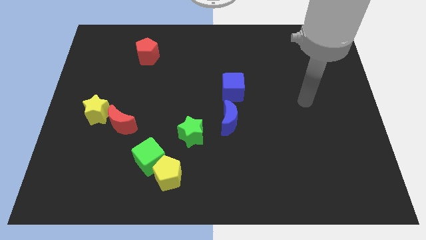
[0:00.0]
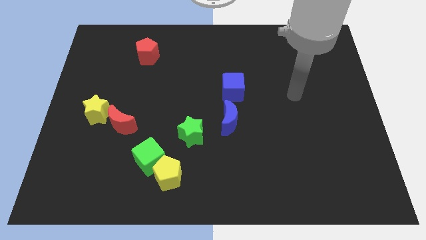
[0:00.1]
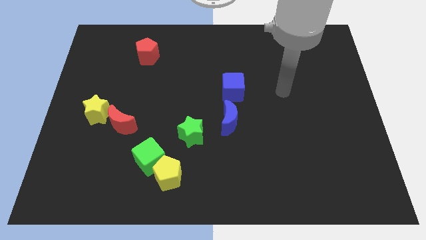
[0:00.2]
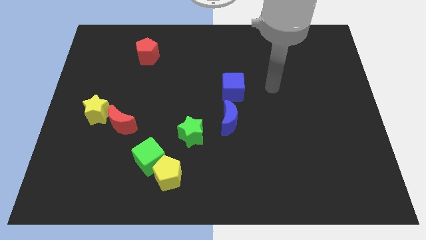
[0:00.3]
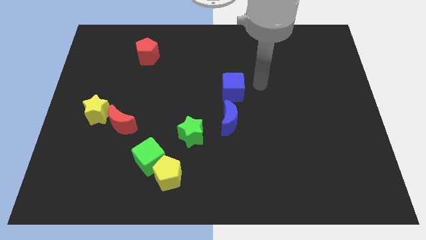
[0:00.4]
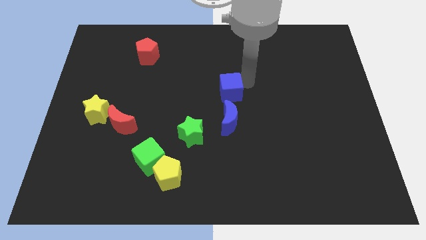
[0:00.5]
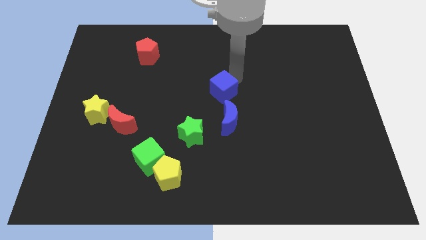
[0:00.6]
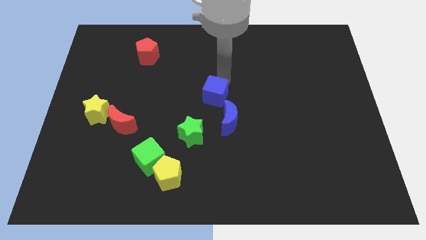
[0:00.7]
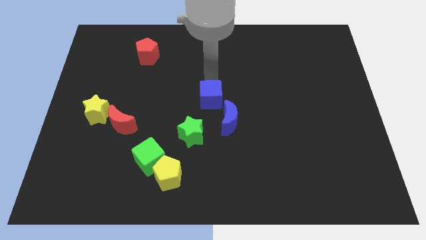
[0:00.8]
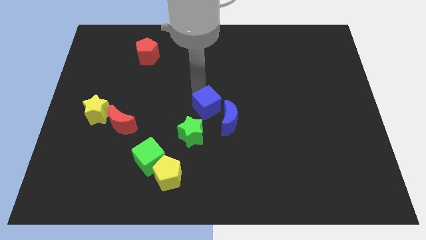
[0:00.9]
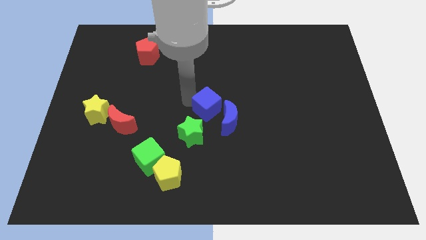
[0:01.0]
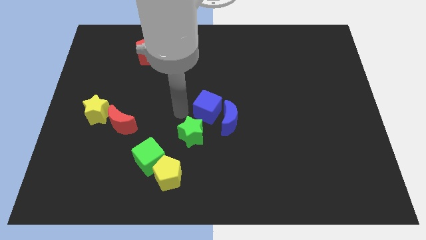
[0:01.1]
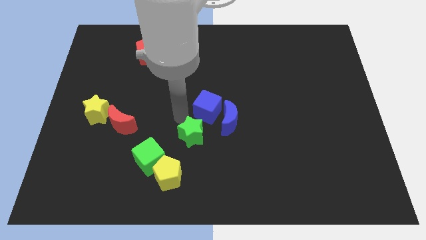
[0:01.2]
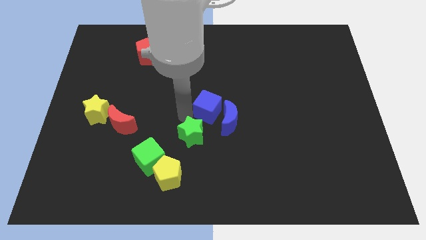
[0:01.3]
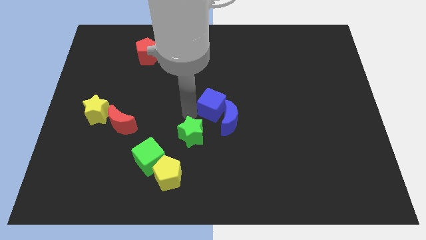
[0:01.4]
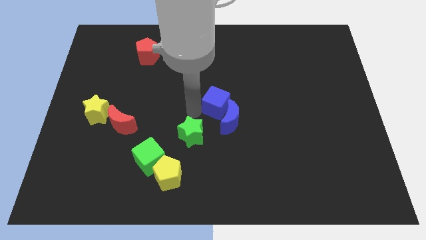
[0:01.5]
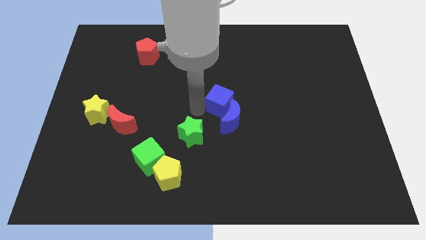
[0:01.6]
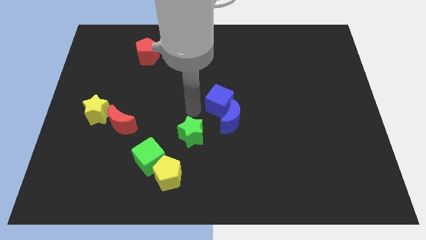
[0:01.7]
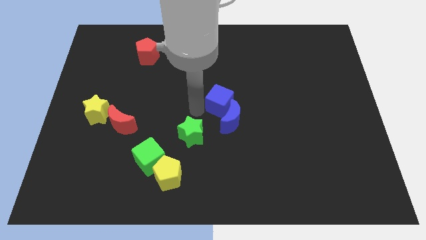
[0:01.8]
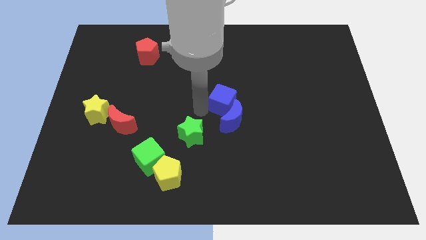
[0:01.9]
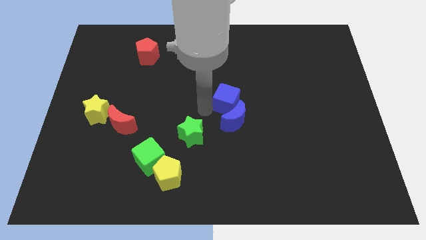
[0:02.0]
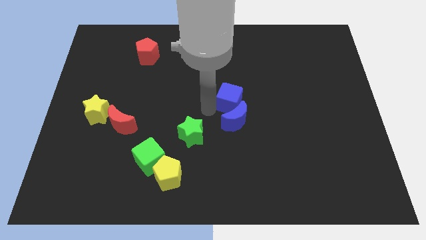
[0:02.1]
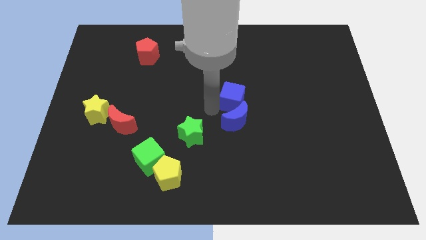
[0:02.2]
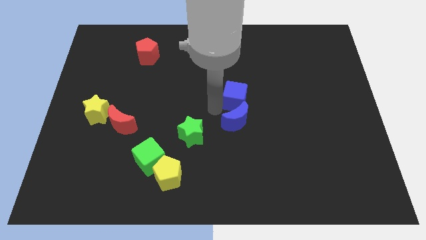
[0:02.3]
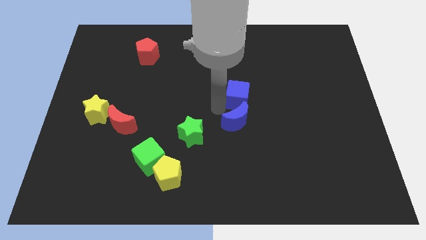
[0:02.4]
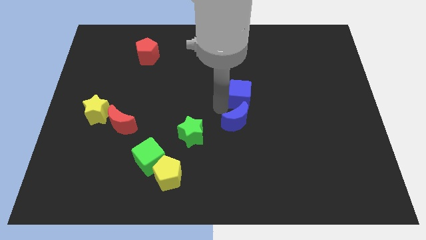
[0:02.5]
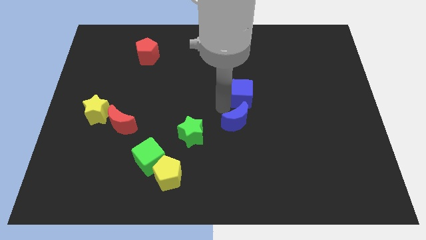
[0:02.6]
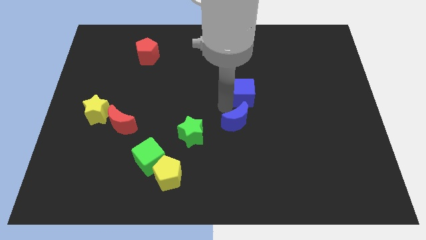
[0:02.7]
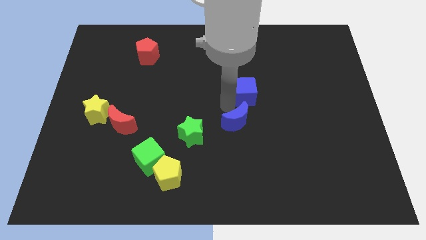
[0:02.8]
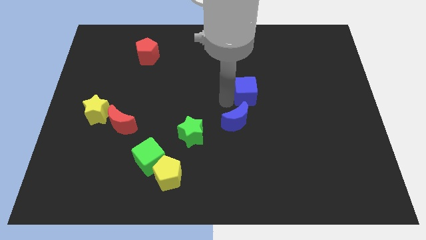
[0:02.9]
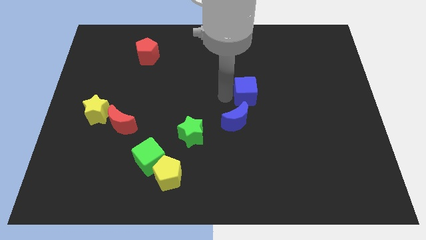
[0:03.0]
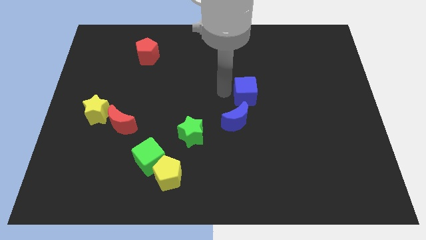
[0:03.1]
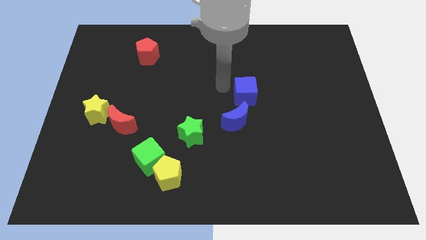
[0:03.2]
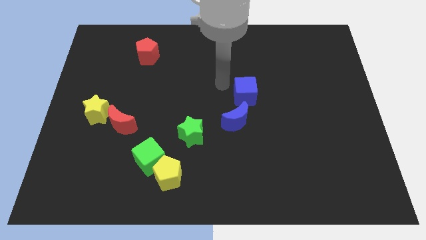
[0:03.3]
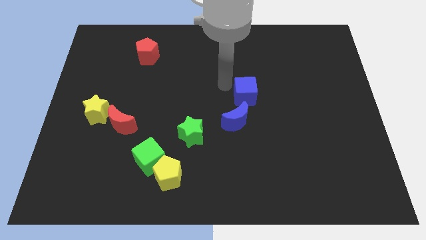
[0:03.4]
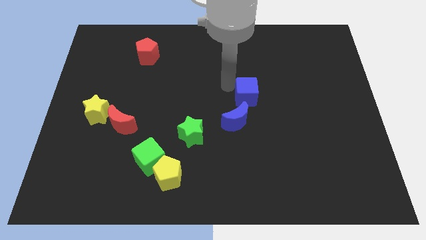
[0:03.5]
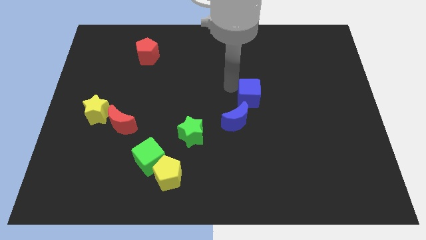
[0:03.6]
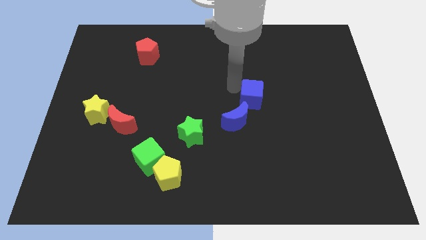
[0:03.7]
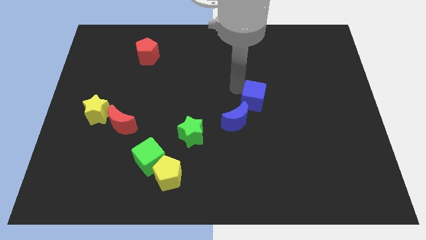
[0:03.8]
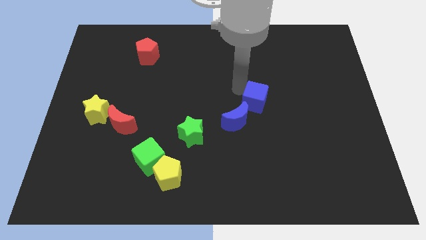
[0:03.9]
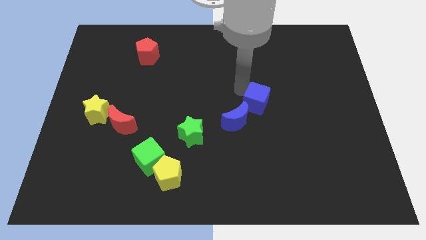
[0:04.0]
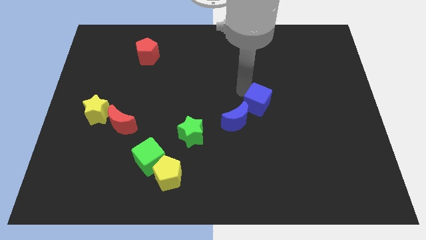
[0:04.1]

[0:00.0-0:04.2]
slide the blue cube down and to the right diagonally a little bit

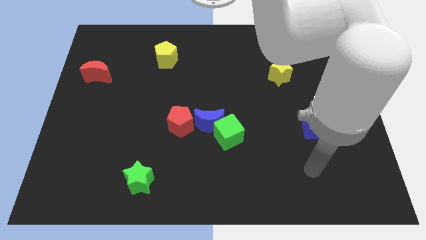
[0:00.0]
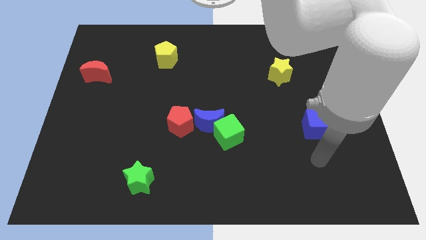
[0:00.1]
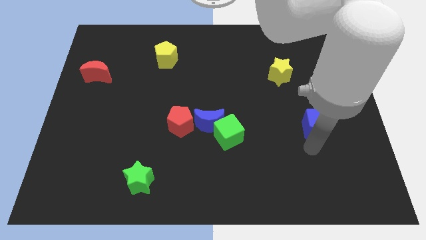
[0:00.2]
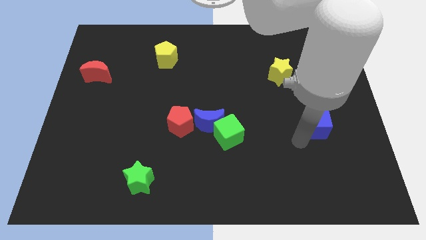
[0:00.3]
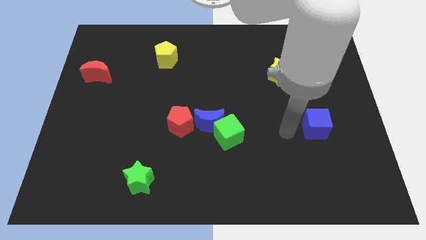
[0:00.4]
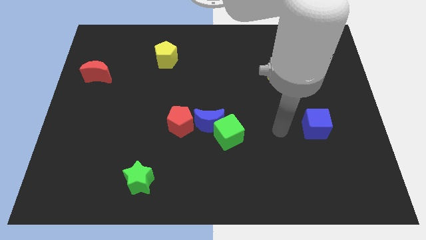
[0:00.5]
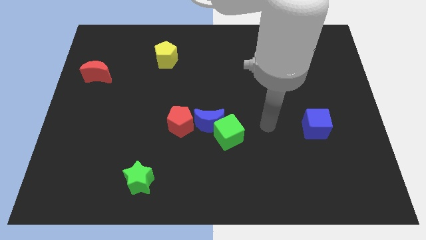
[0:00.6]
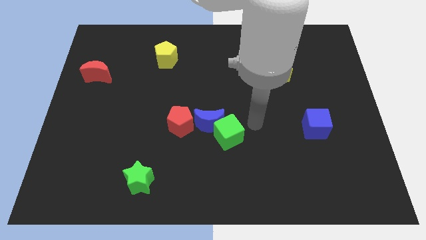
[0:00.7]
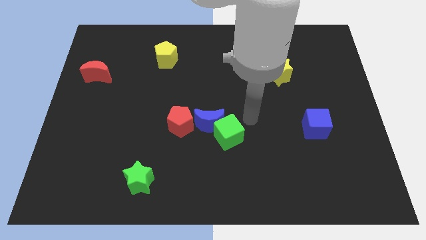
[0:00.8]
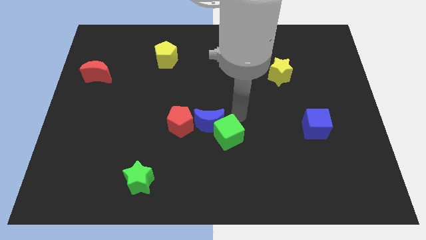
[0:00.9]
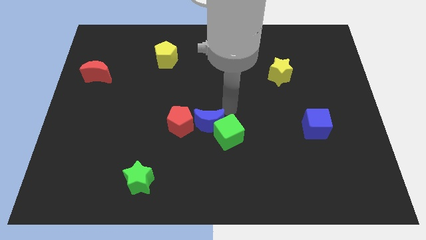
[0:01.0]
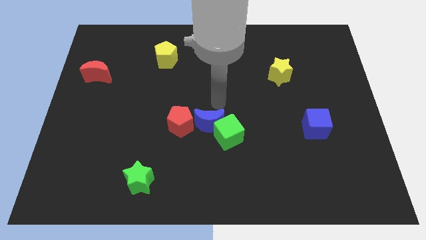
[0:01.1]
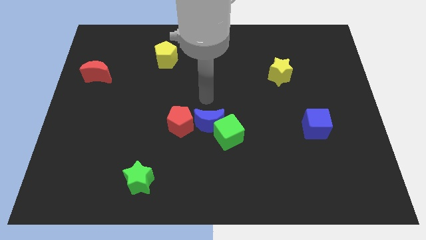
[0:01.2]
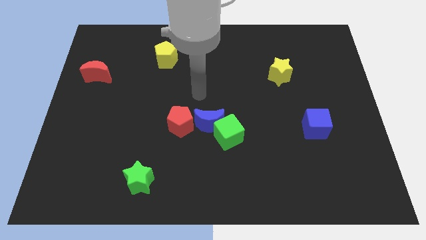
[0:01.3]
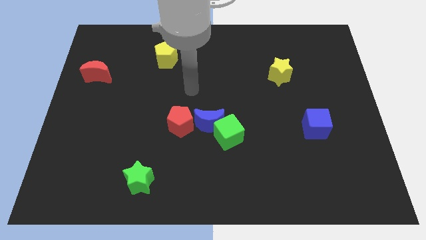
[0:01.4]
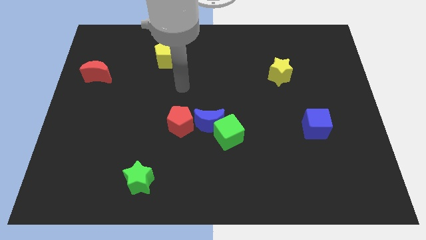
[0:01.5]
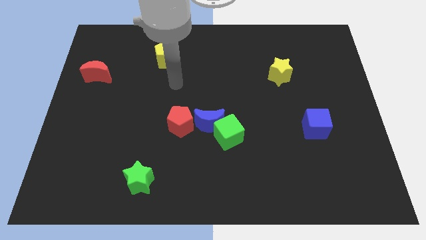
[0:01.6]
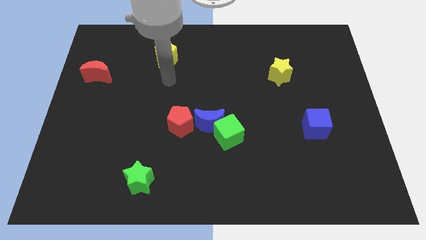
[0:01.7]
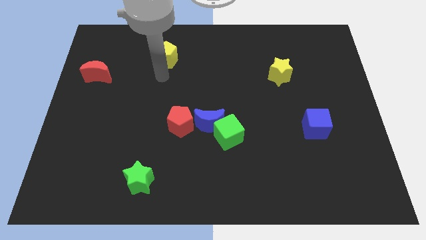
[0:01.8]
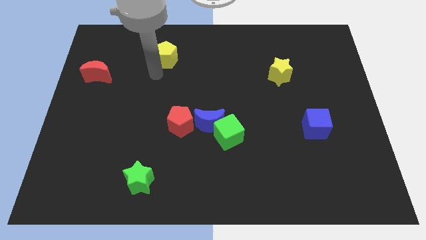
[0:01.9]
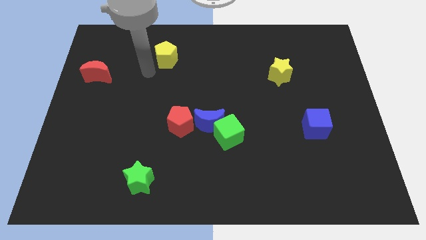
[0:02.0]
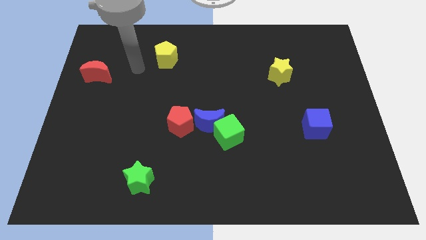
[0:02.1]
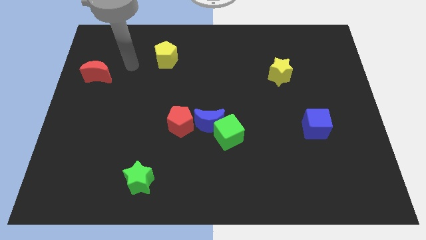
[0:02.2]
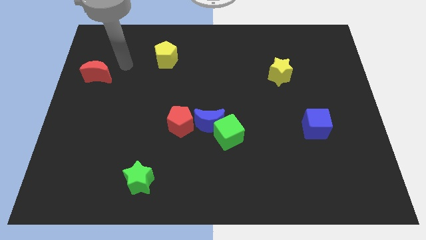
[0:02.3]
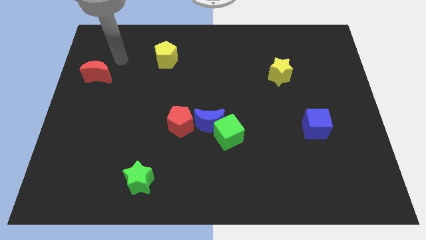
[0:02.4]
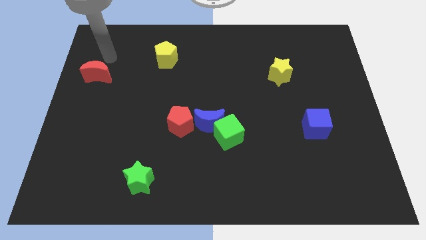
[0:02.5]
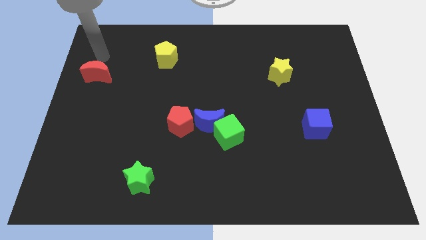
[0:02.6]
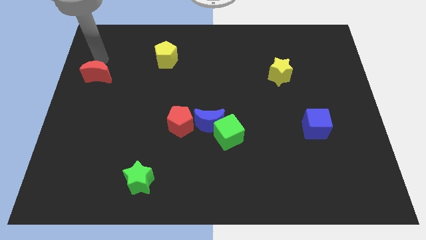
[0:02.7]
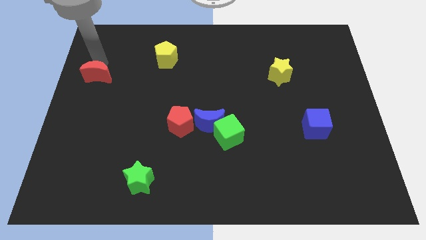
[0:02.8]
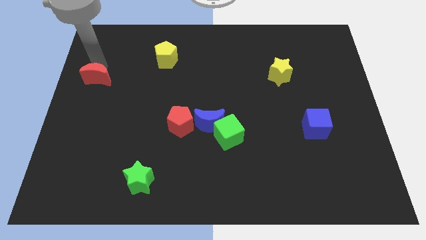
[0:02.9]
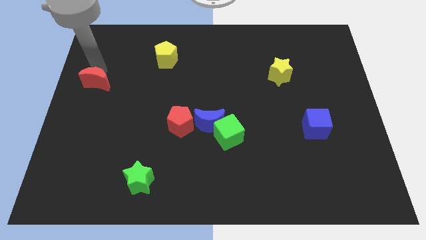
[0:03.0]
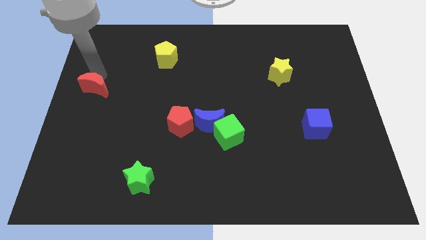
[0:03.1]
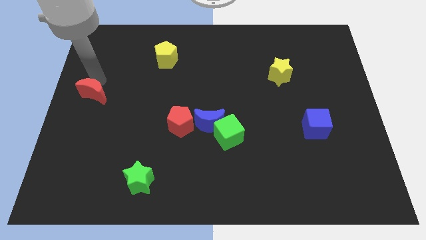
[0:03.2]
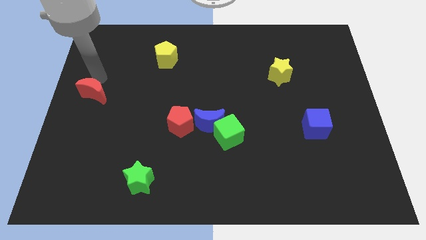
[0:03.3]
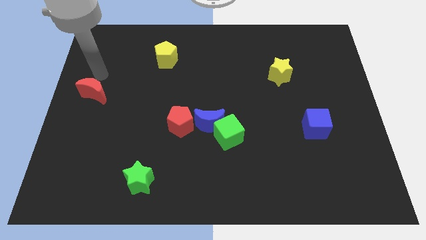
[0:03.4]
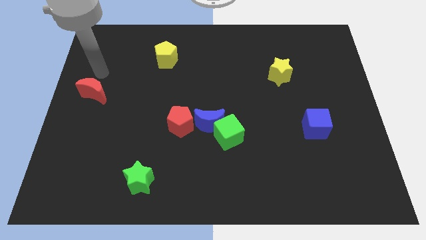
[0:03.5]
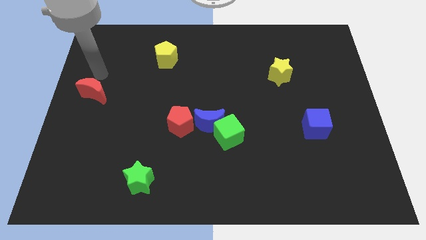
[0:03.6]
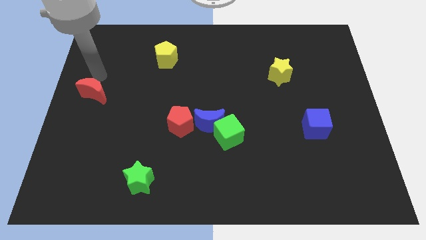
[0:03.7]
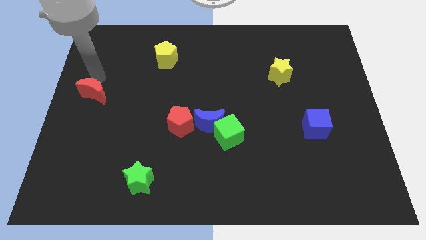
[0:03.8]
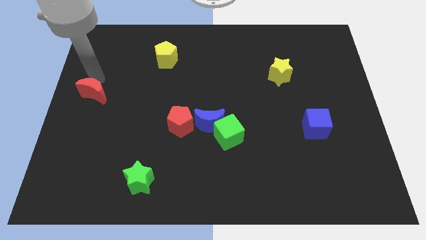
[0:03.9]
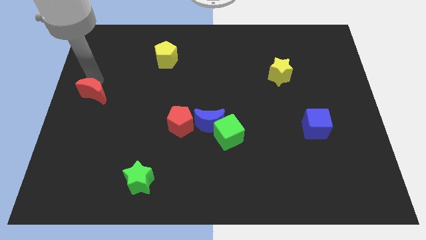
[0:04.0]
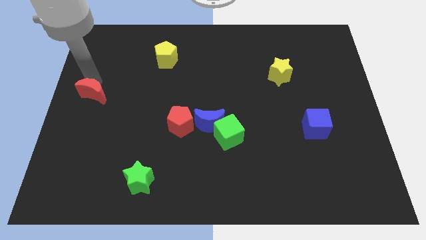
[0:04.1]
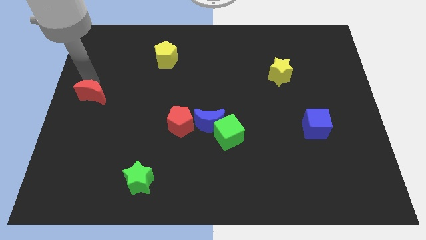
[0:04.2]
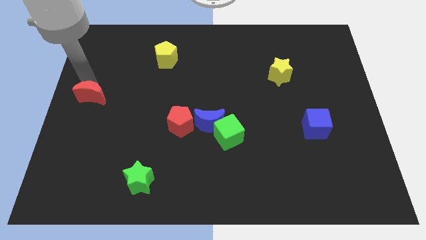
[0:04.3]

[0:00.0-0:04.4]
slide the red moon slightly down
